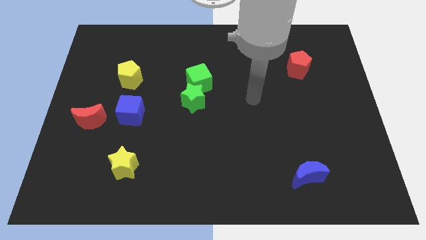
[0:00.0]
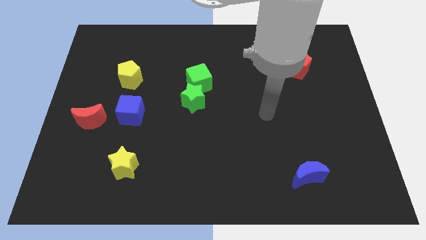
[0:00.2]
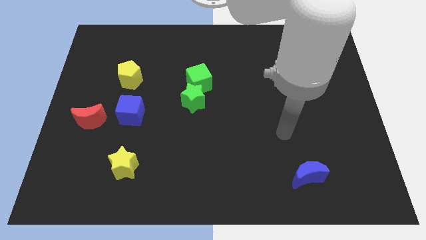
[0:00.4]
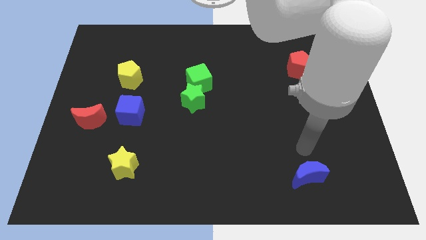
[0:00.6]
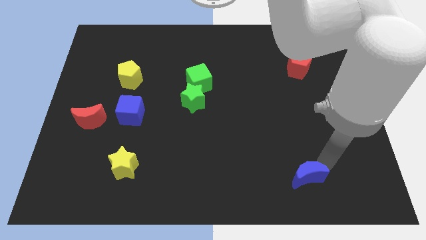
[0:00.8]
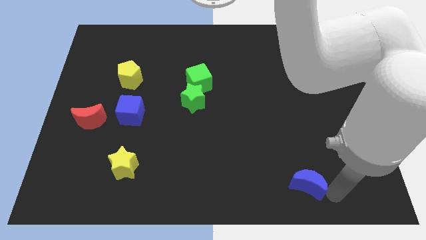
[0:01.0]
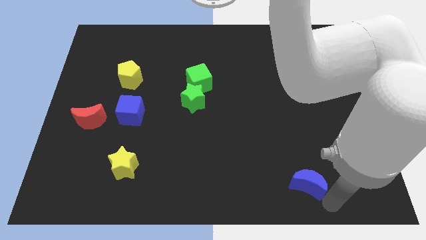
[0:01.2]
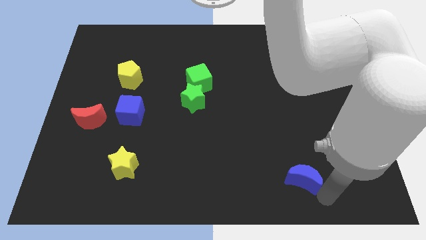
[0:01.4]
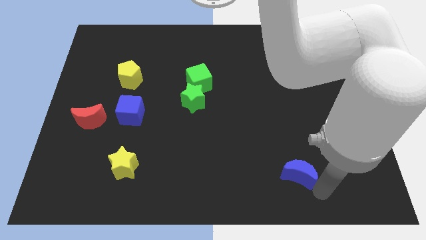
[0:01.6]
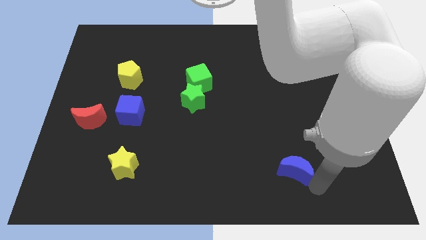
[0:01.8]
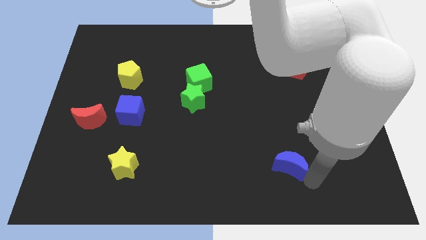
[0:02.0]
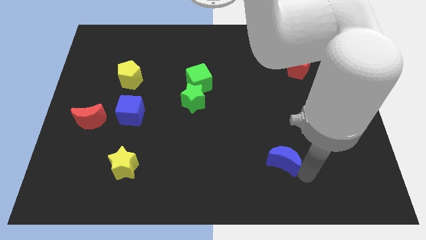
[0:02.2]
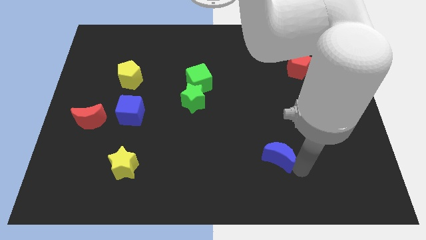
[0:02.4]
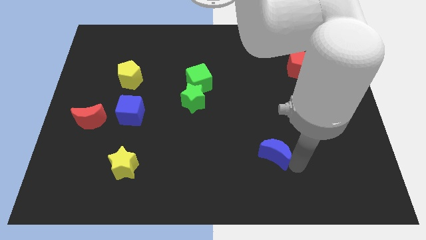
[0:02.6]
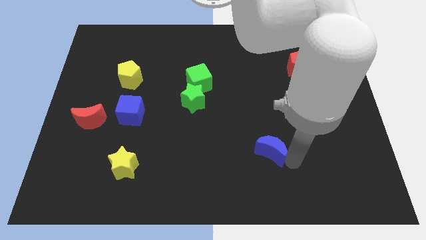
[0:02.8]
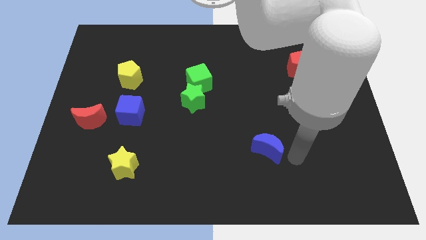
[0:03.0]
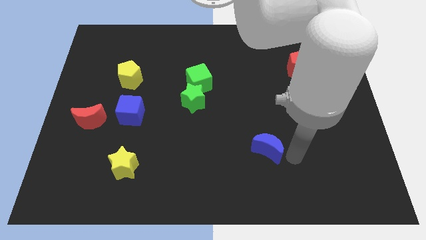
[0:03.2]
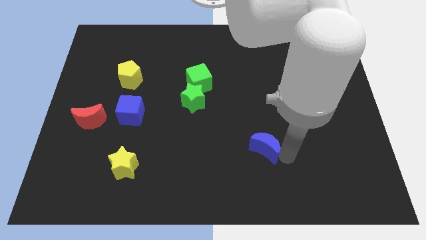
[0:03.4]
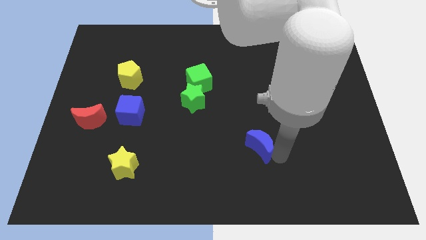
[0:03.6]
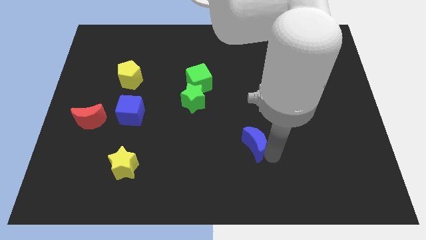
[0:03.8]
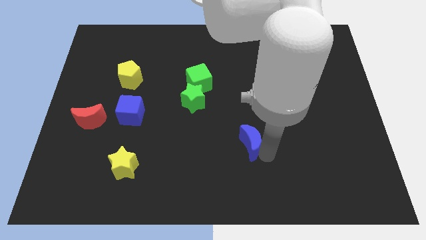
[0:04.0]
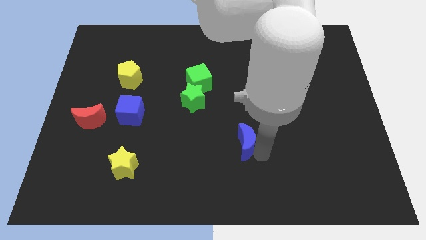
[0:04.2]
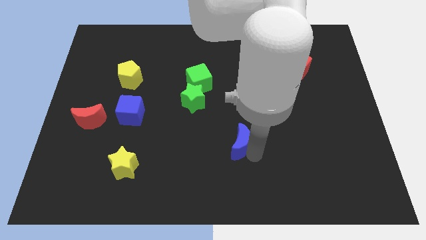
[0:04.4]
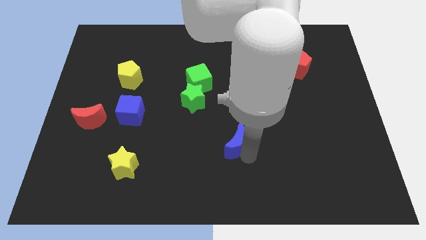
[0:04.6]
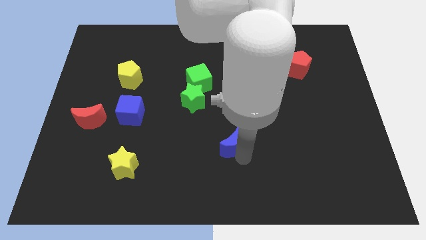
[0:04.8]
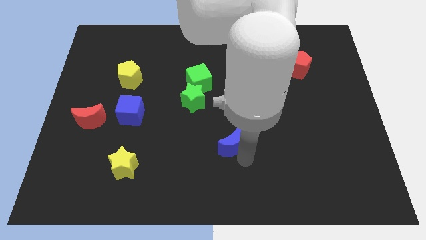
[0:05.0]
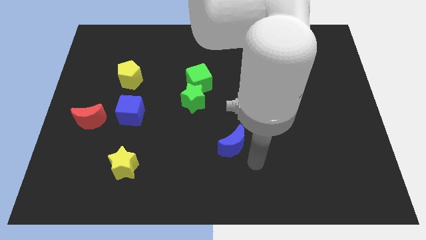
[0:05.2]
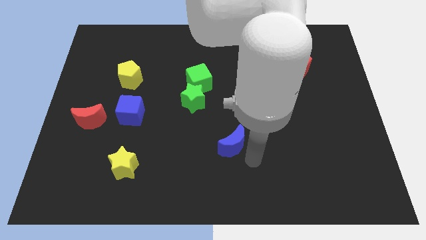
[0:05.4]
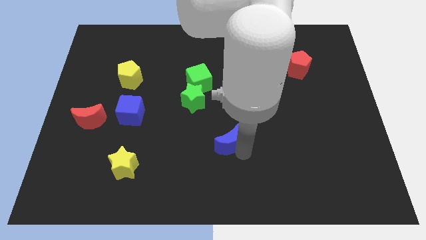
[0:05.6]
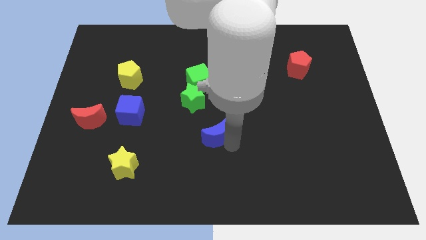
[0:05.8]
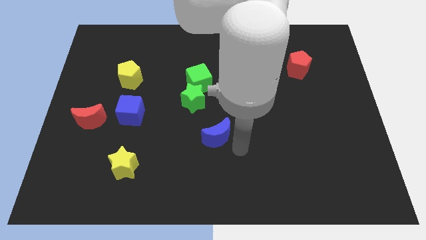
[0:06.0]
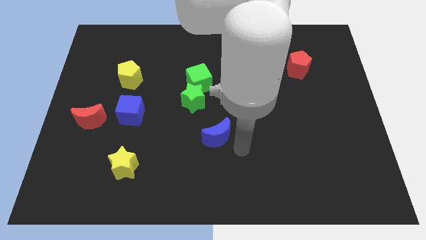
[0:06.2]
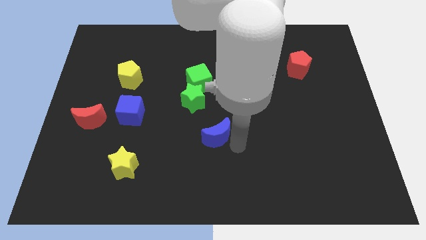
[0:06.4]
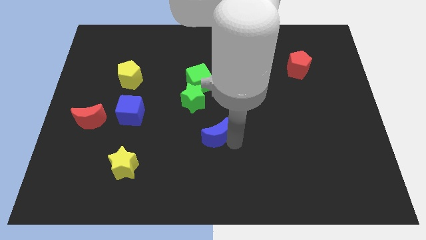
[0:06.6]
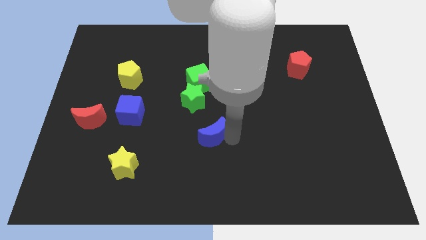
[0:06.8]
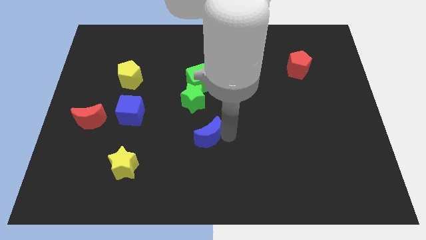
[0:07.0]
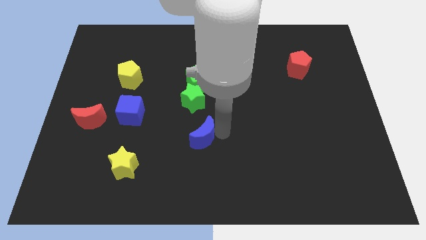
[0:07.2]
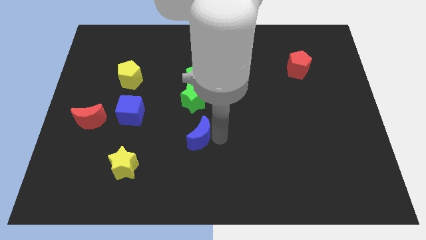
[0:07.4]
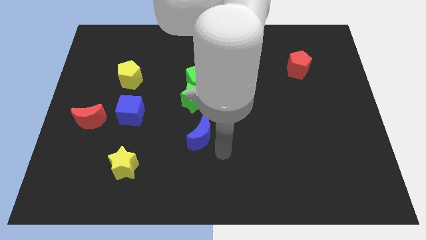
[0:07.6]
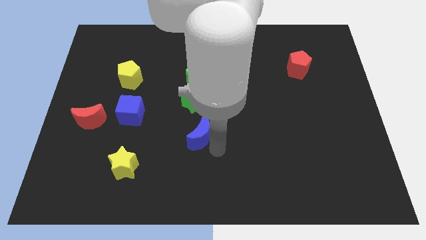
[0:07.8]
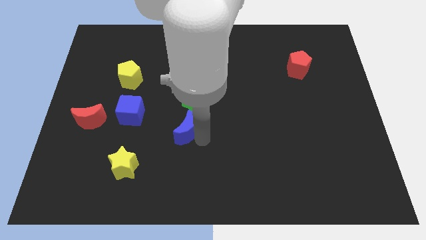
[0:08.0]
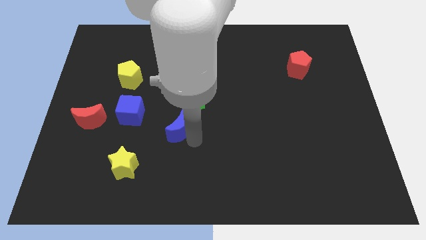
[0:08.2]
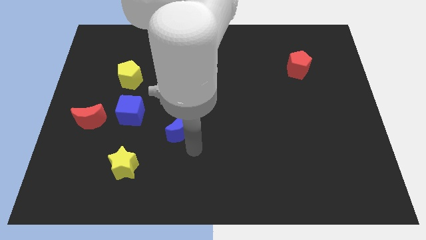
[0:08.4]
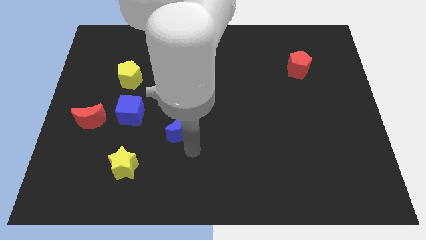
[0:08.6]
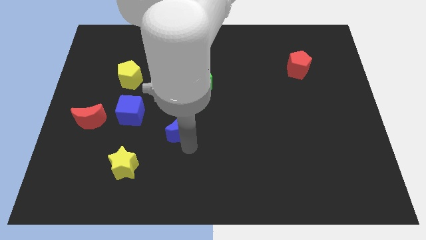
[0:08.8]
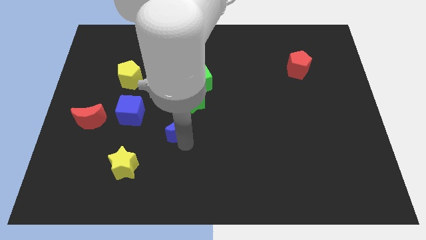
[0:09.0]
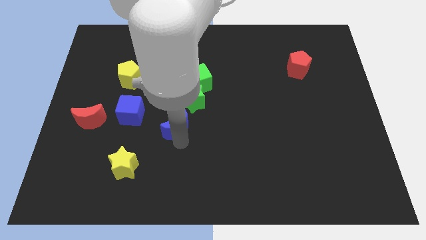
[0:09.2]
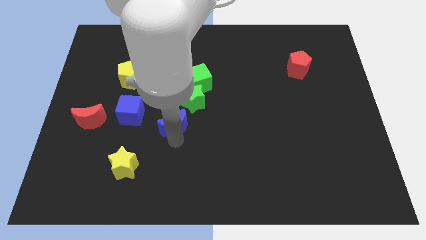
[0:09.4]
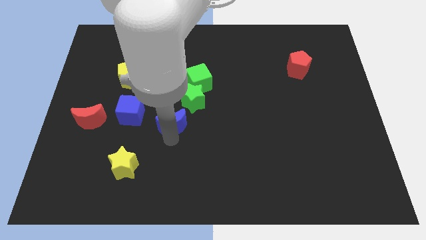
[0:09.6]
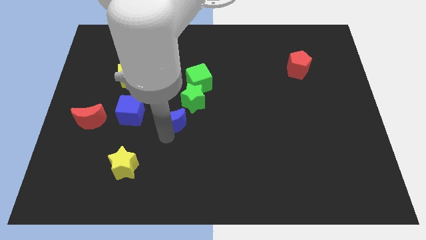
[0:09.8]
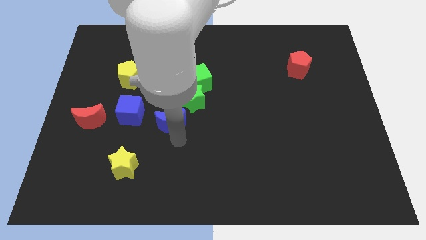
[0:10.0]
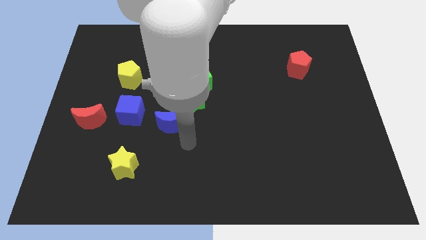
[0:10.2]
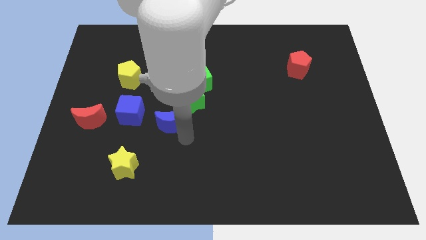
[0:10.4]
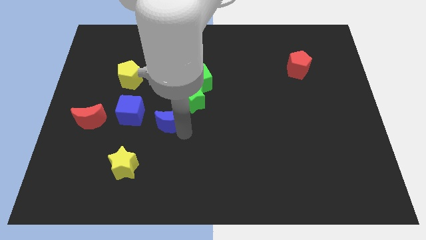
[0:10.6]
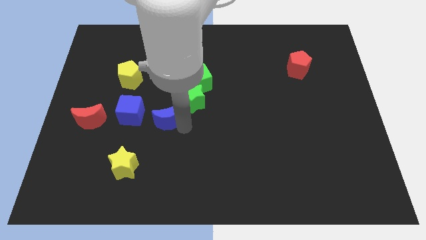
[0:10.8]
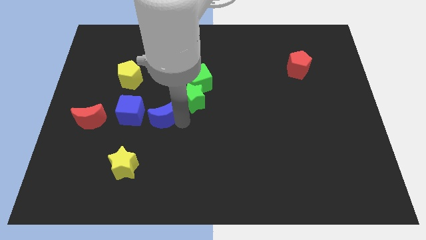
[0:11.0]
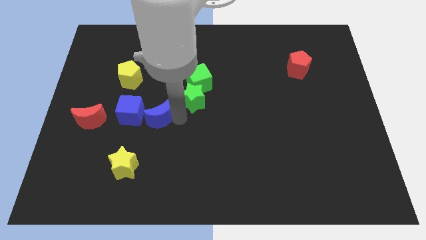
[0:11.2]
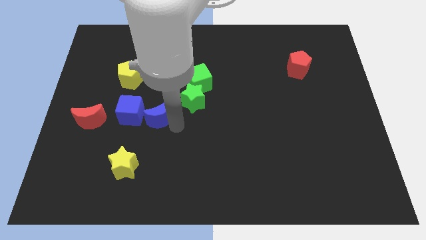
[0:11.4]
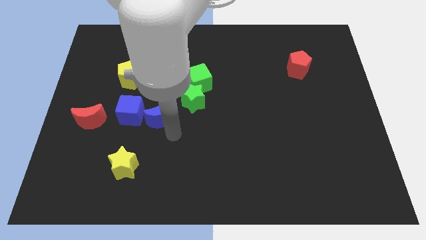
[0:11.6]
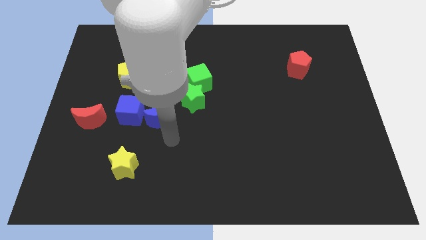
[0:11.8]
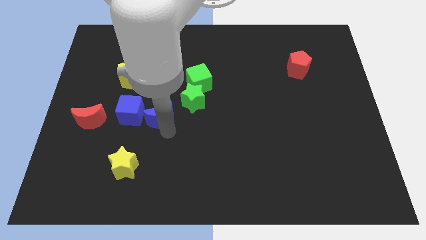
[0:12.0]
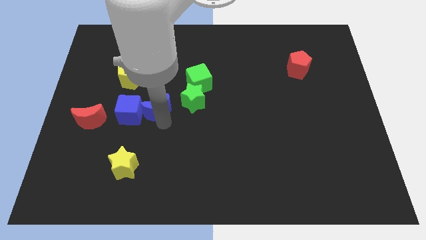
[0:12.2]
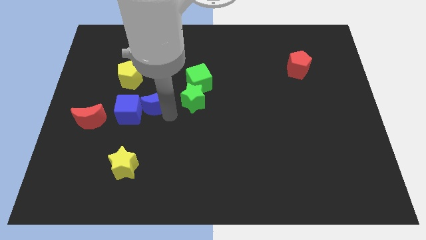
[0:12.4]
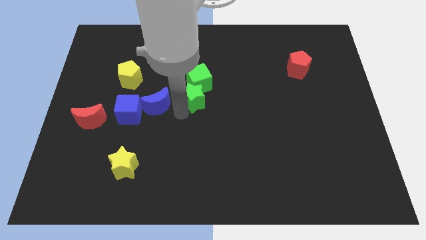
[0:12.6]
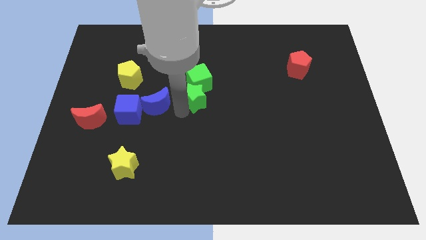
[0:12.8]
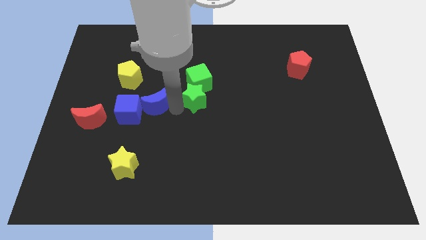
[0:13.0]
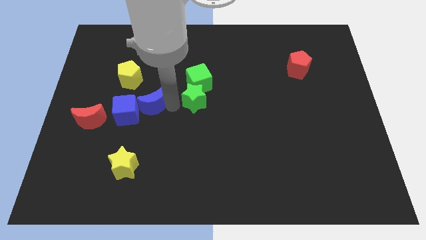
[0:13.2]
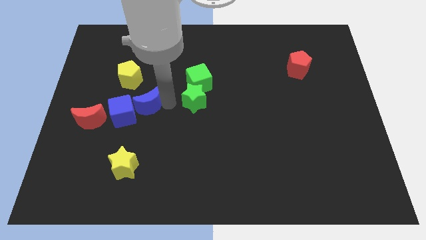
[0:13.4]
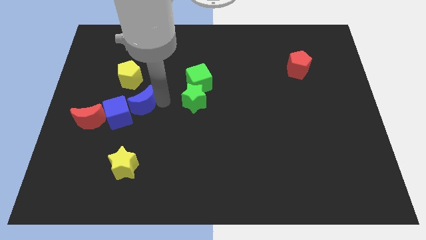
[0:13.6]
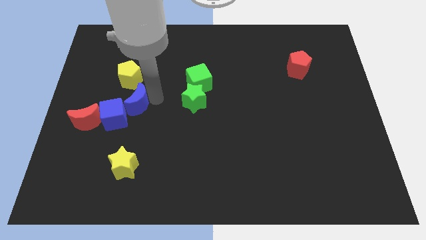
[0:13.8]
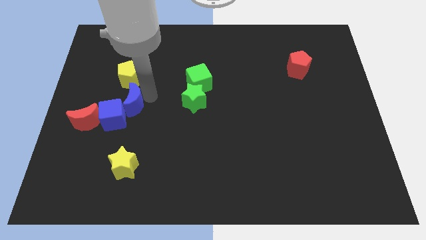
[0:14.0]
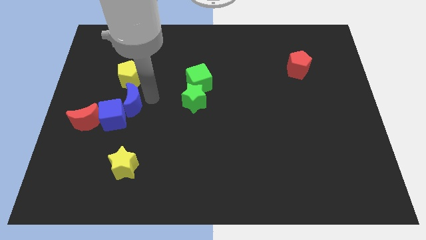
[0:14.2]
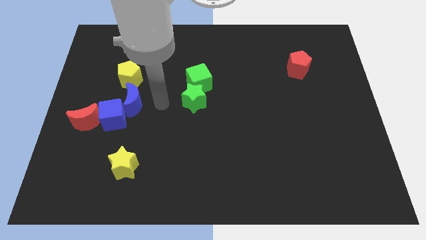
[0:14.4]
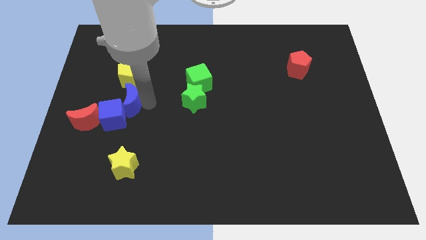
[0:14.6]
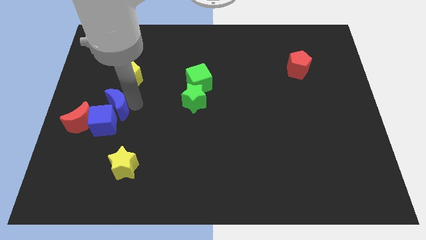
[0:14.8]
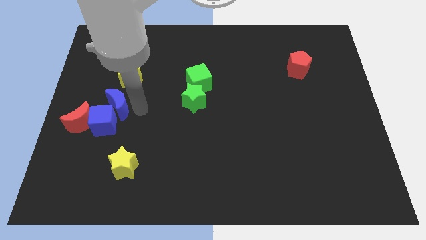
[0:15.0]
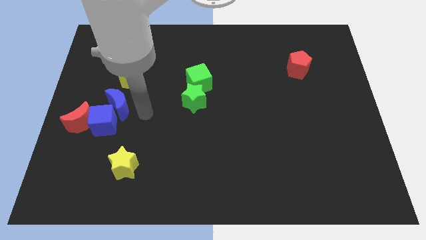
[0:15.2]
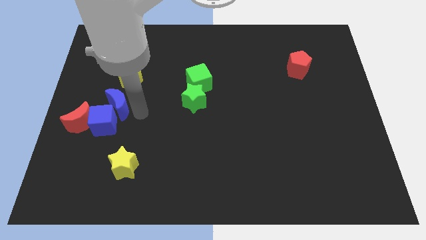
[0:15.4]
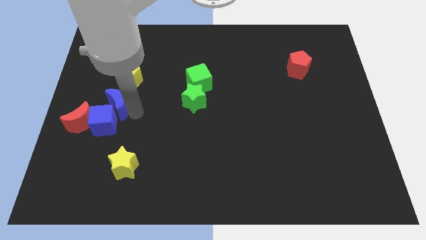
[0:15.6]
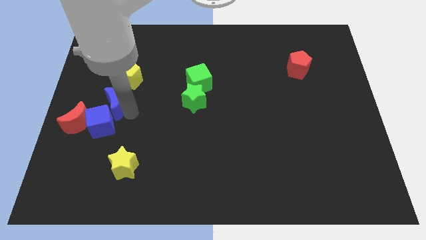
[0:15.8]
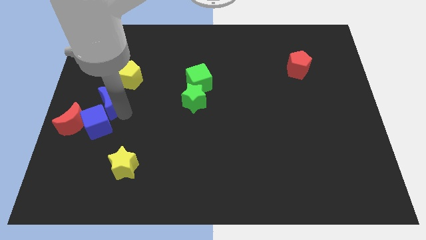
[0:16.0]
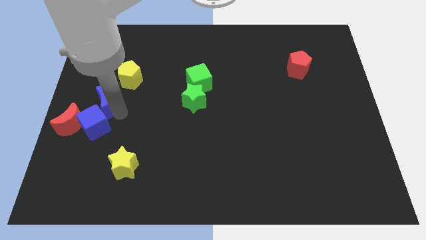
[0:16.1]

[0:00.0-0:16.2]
put the blue moon to the left side of the board
